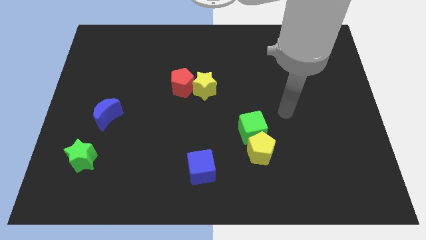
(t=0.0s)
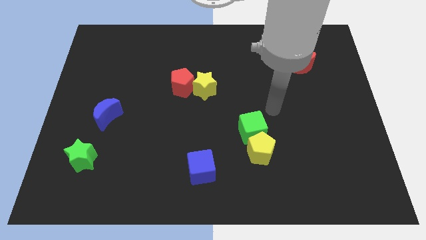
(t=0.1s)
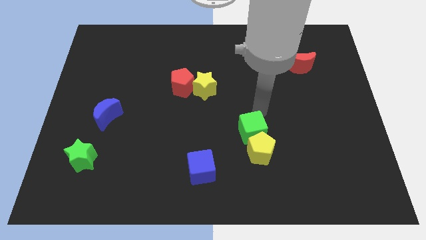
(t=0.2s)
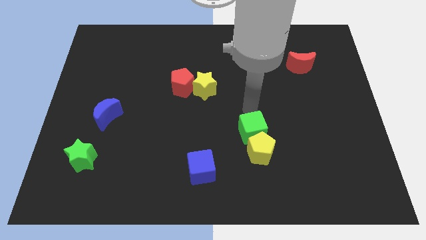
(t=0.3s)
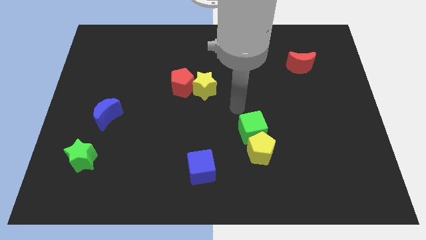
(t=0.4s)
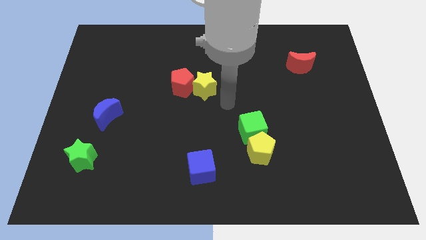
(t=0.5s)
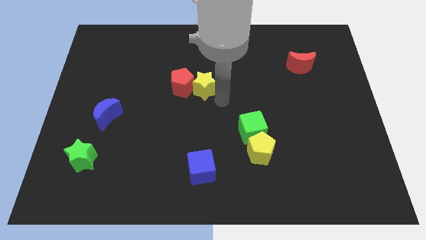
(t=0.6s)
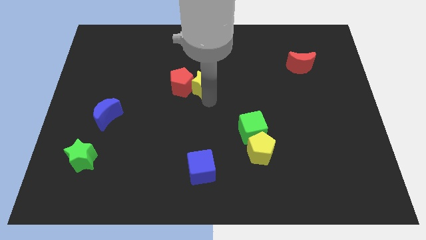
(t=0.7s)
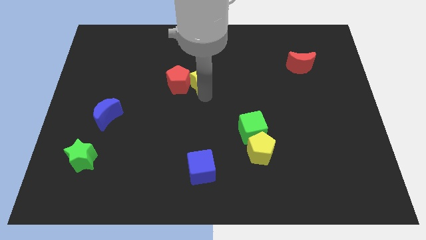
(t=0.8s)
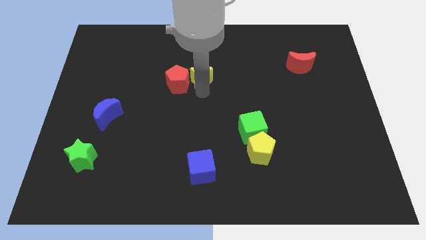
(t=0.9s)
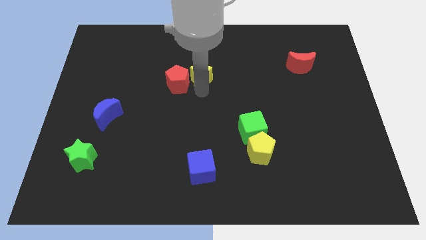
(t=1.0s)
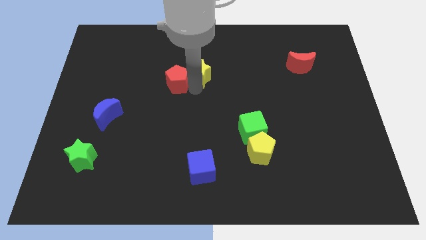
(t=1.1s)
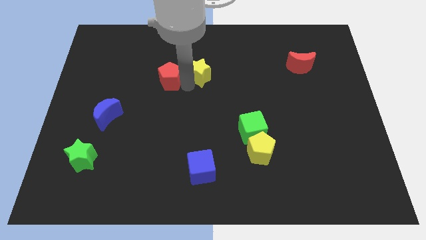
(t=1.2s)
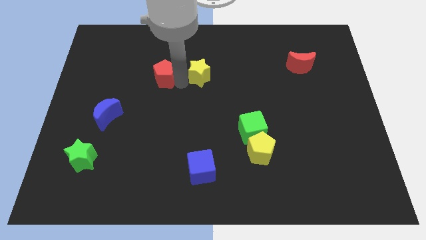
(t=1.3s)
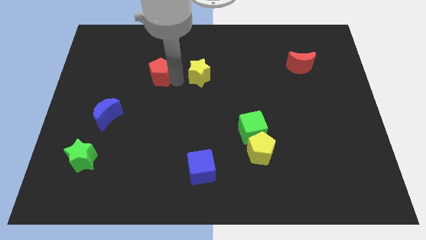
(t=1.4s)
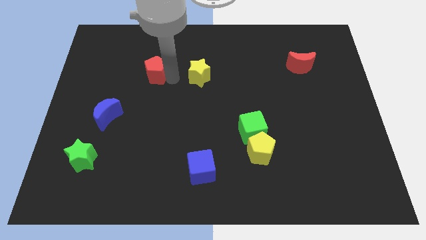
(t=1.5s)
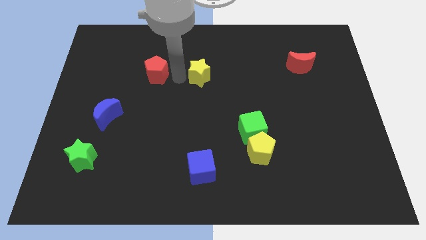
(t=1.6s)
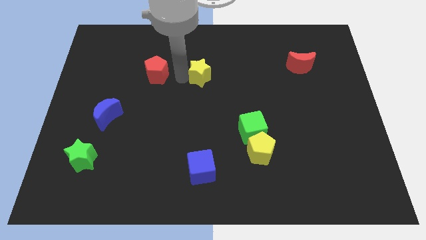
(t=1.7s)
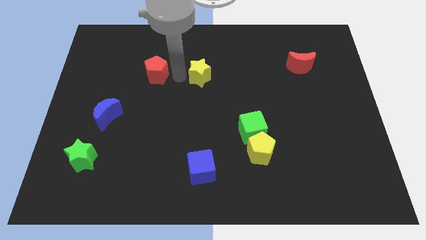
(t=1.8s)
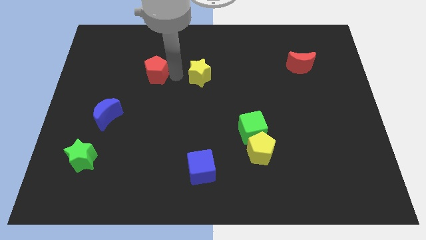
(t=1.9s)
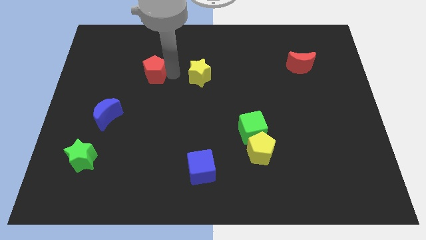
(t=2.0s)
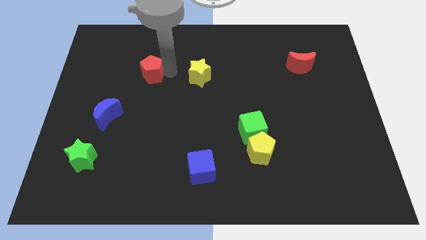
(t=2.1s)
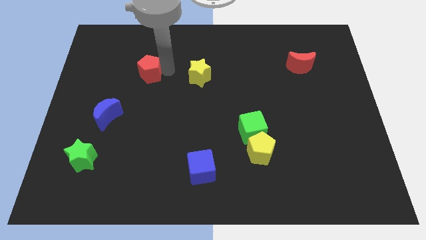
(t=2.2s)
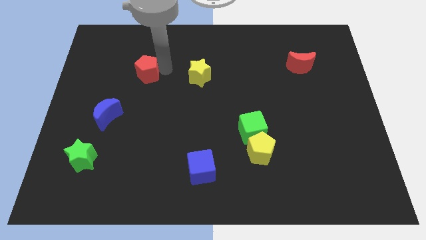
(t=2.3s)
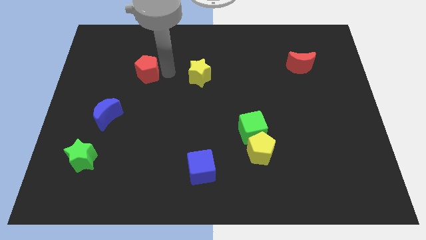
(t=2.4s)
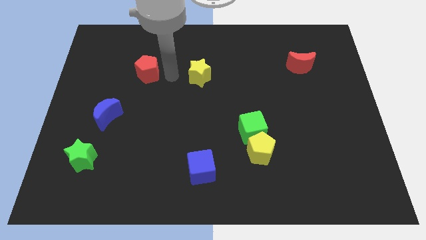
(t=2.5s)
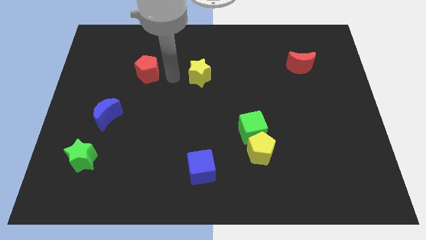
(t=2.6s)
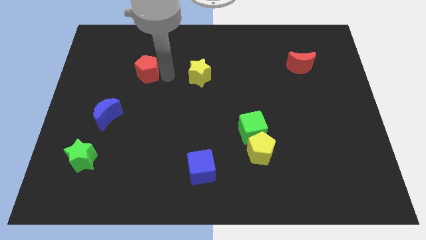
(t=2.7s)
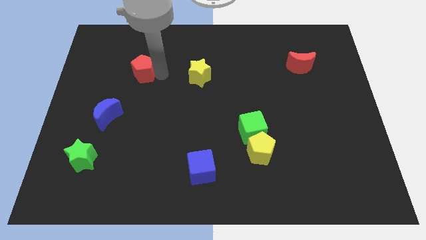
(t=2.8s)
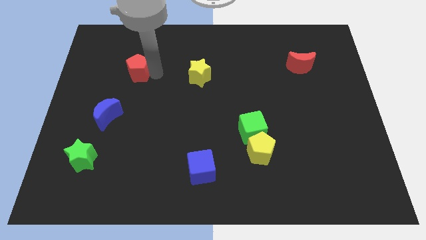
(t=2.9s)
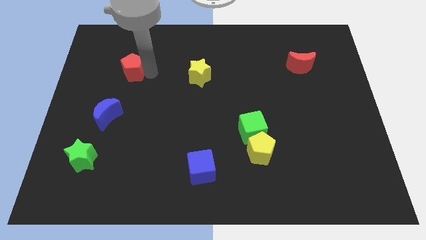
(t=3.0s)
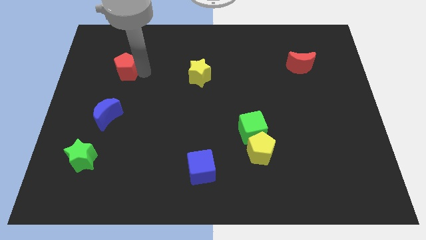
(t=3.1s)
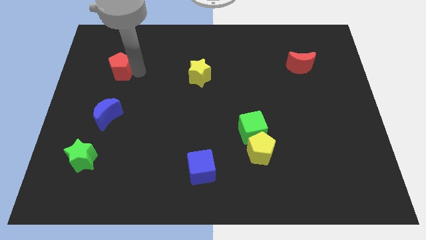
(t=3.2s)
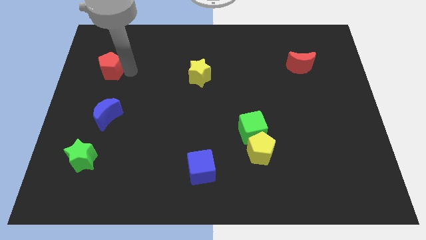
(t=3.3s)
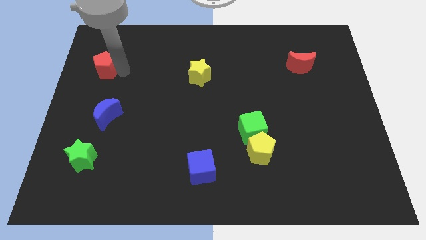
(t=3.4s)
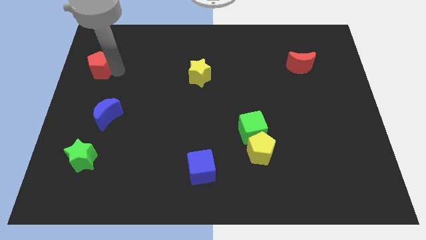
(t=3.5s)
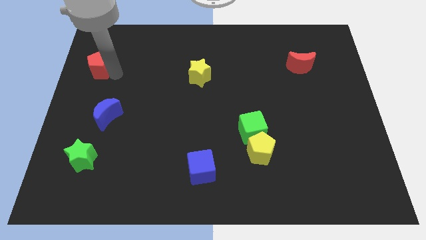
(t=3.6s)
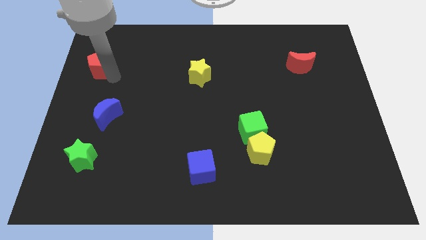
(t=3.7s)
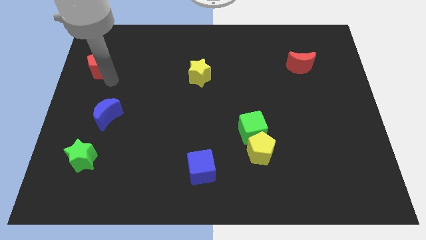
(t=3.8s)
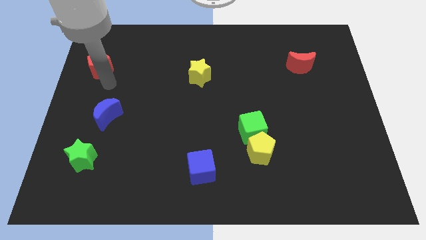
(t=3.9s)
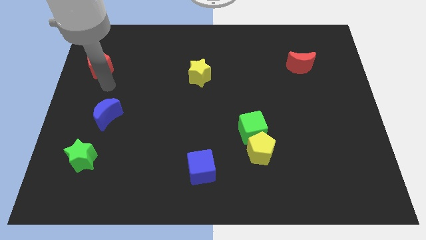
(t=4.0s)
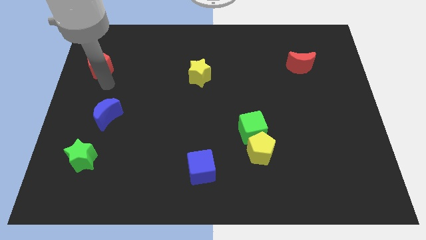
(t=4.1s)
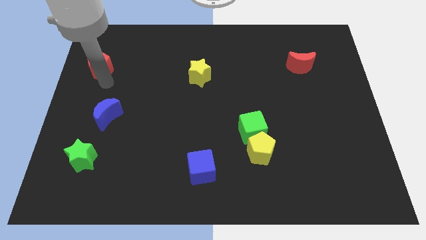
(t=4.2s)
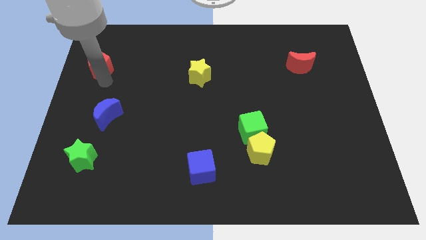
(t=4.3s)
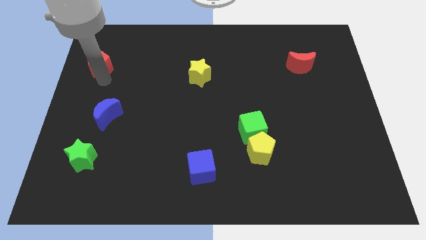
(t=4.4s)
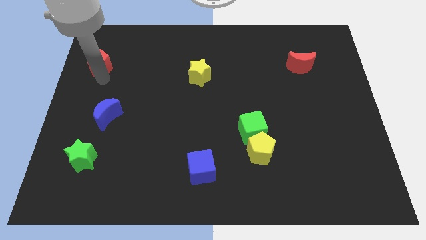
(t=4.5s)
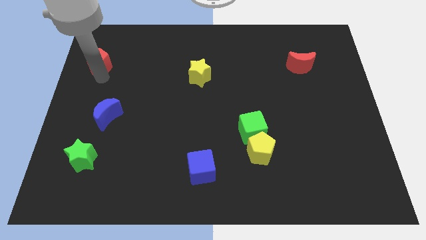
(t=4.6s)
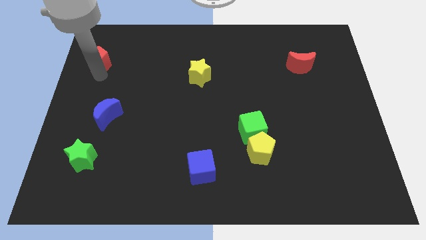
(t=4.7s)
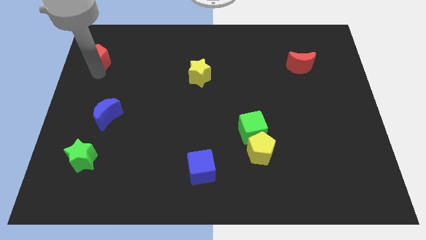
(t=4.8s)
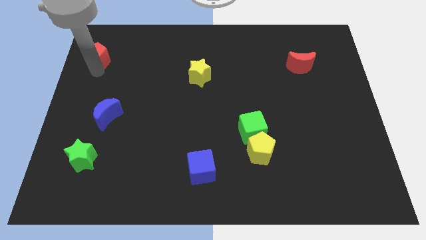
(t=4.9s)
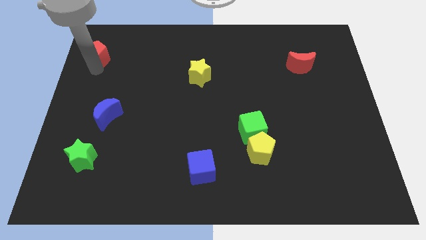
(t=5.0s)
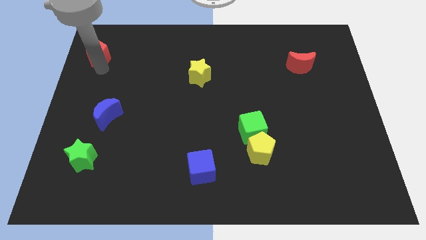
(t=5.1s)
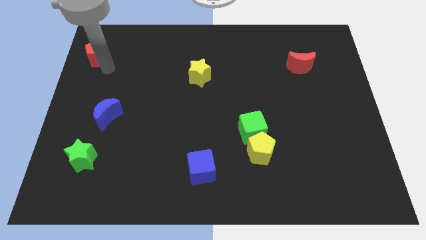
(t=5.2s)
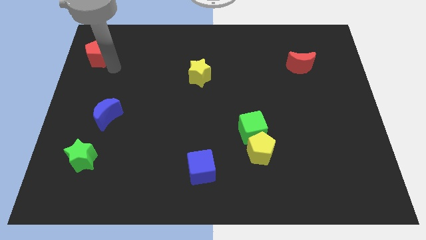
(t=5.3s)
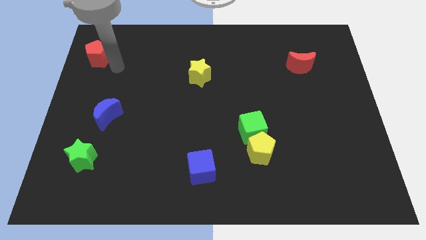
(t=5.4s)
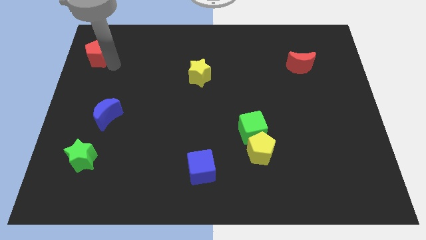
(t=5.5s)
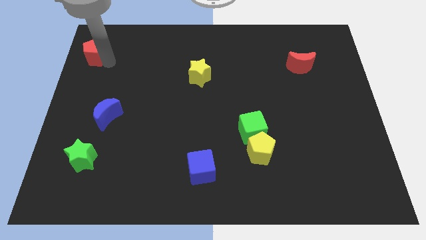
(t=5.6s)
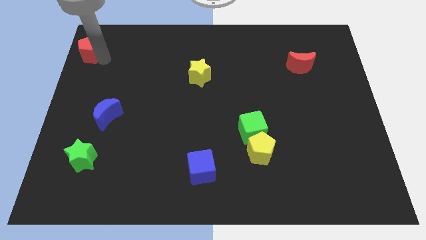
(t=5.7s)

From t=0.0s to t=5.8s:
move the red pentagon to the upper left corner

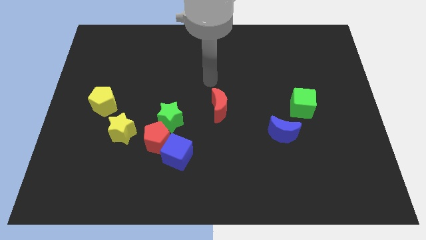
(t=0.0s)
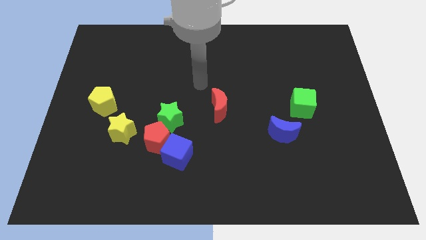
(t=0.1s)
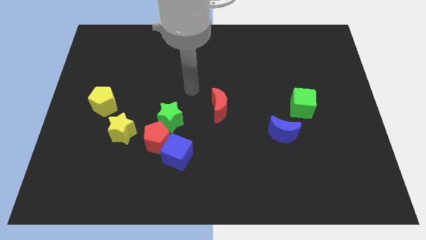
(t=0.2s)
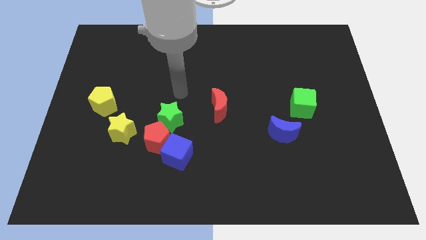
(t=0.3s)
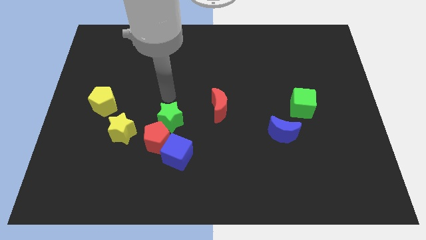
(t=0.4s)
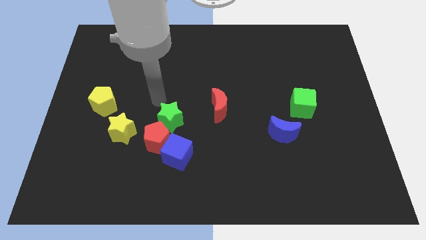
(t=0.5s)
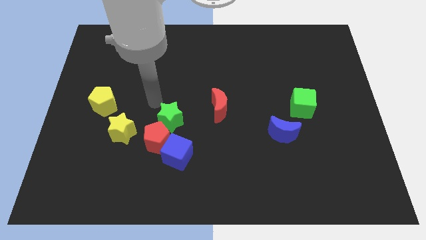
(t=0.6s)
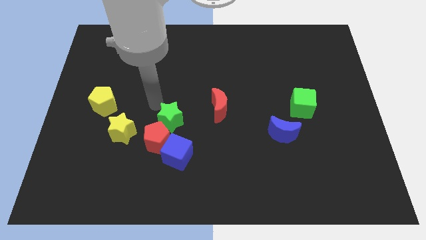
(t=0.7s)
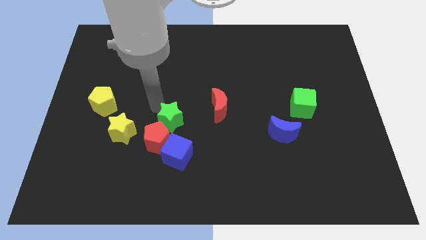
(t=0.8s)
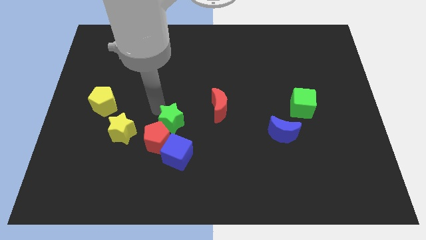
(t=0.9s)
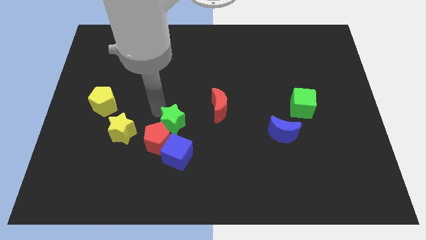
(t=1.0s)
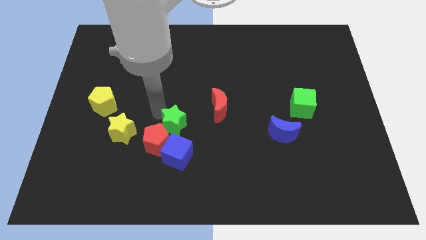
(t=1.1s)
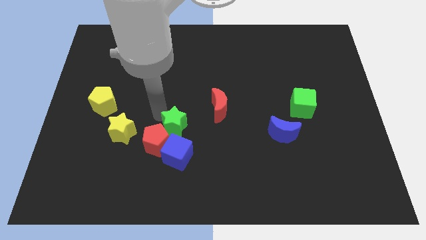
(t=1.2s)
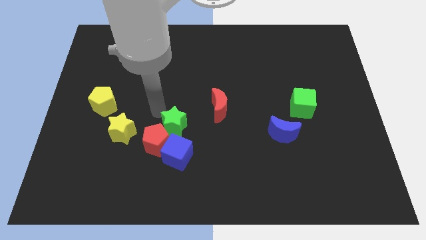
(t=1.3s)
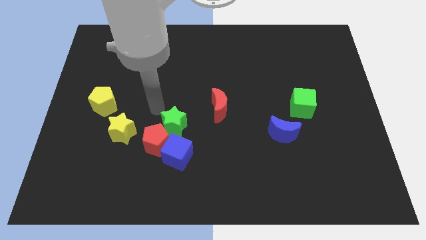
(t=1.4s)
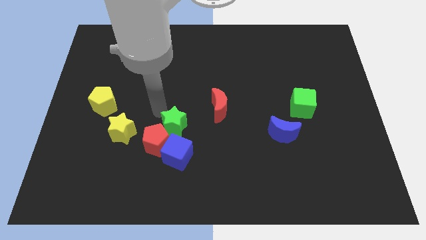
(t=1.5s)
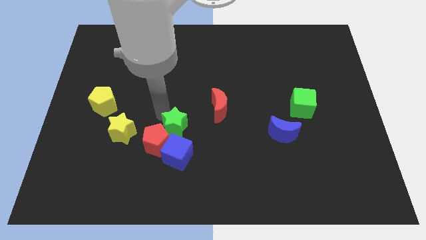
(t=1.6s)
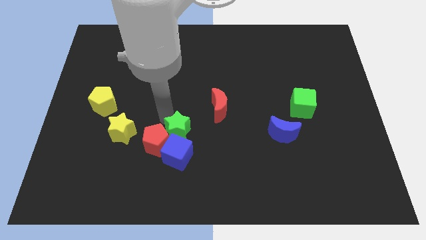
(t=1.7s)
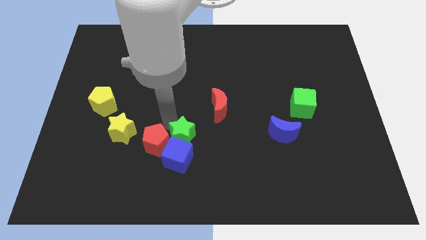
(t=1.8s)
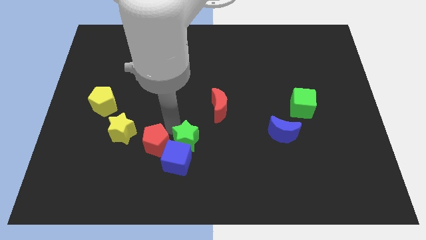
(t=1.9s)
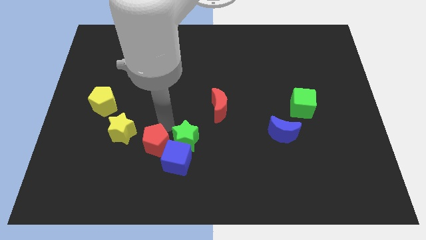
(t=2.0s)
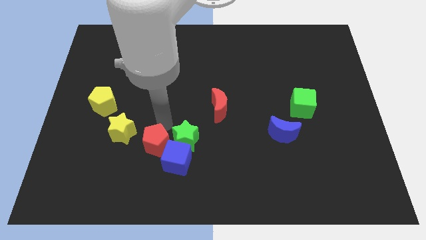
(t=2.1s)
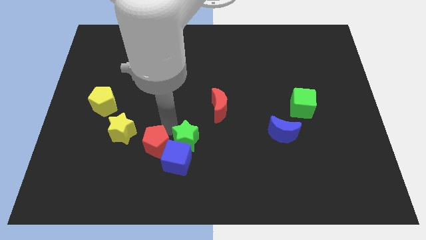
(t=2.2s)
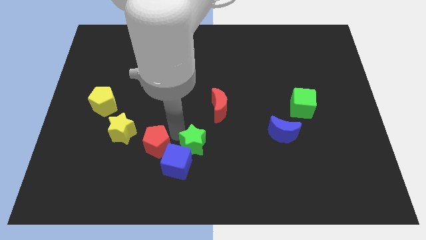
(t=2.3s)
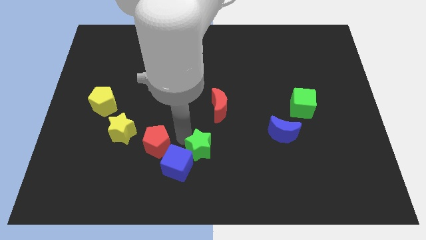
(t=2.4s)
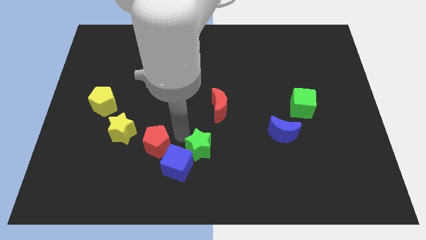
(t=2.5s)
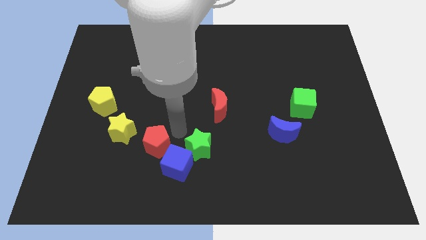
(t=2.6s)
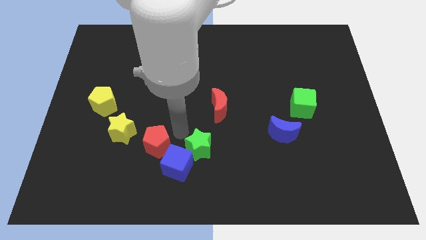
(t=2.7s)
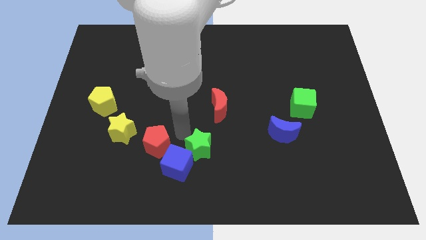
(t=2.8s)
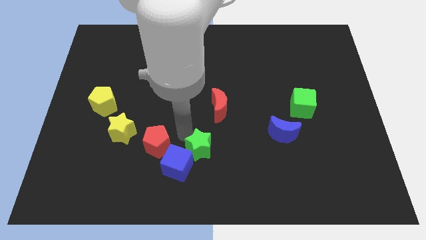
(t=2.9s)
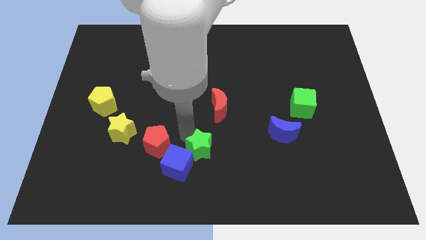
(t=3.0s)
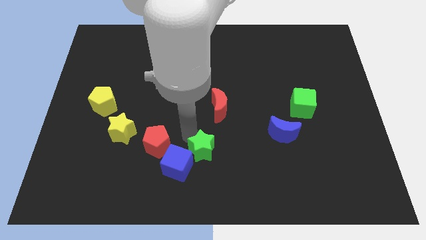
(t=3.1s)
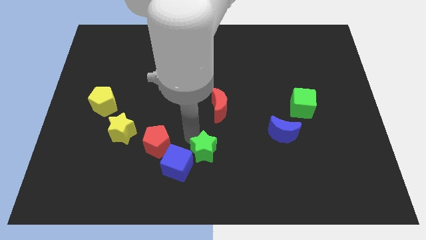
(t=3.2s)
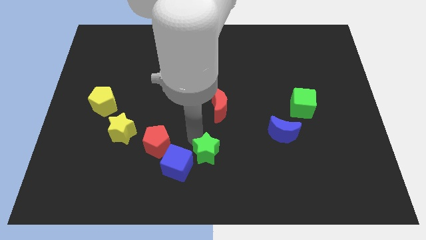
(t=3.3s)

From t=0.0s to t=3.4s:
move the green star to the bottom
